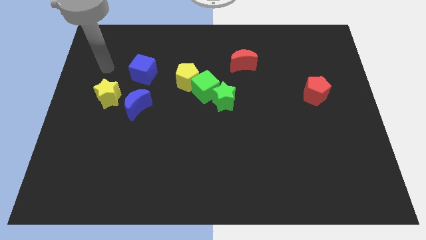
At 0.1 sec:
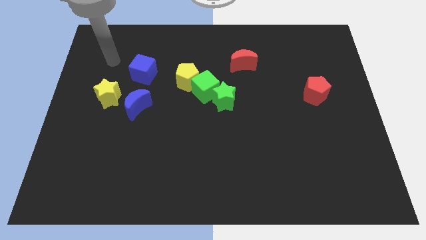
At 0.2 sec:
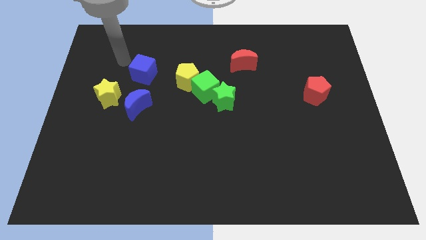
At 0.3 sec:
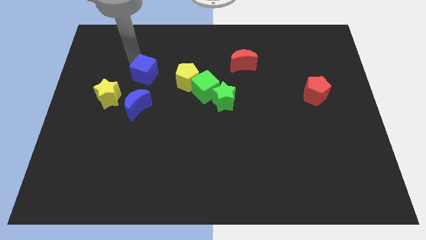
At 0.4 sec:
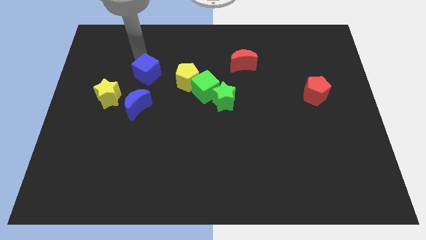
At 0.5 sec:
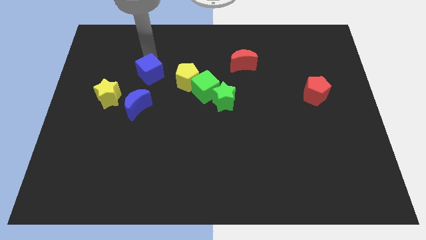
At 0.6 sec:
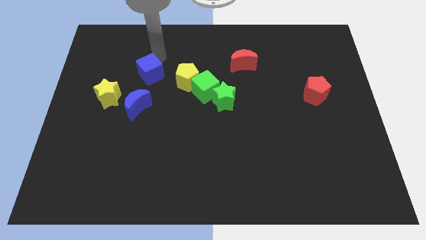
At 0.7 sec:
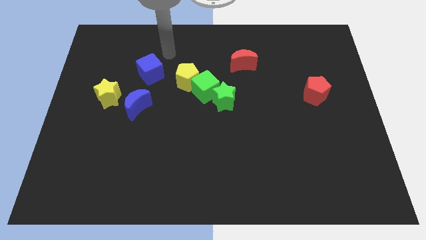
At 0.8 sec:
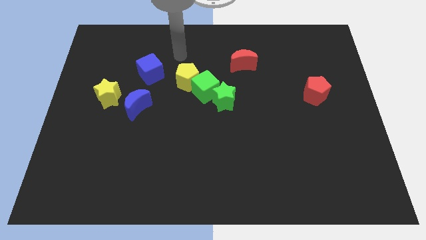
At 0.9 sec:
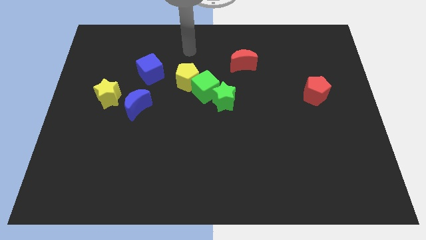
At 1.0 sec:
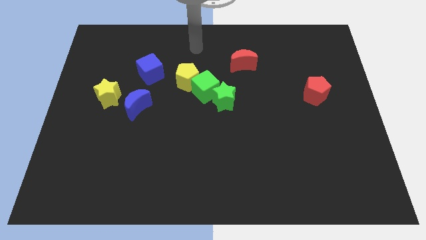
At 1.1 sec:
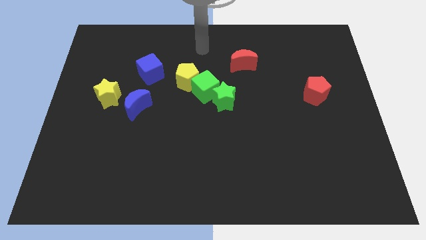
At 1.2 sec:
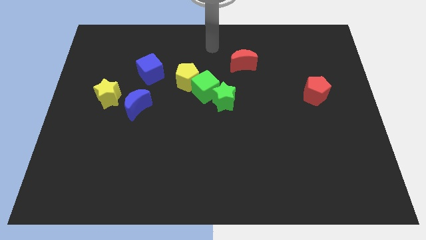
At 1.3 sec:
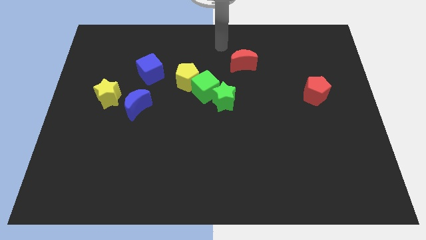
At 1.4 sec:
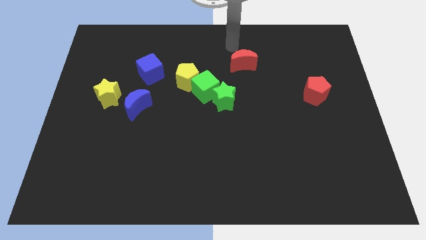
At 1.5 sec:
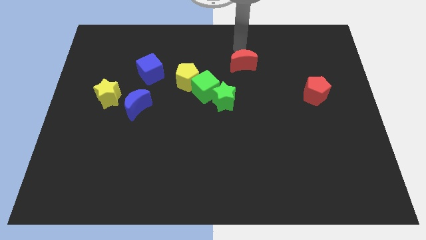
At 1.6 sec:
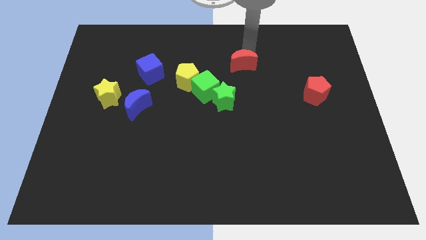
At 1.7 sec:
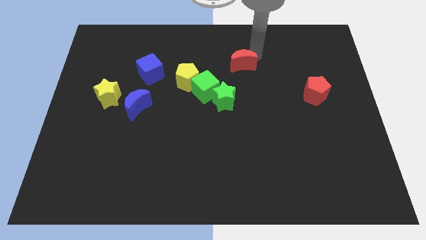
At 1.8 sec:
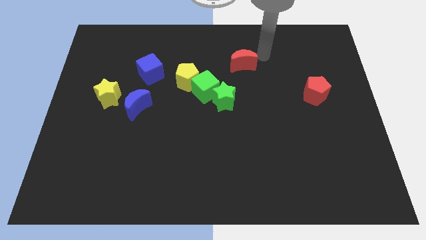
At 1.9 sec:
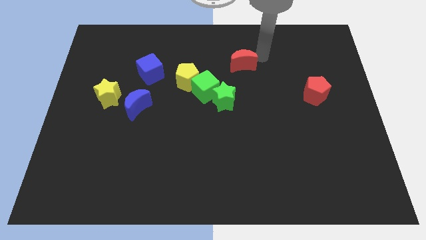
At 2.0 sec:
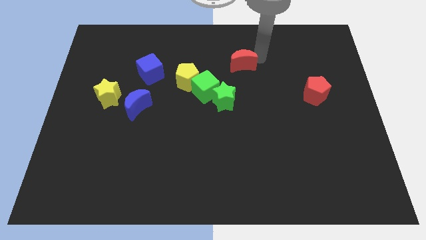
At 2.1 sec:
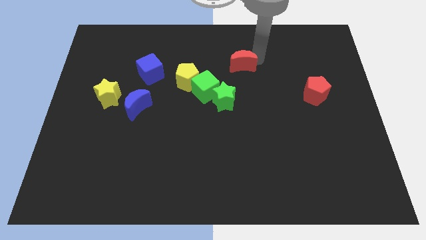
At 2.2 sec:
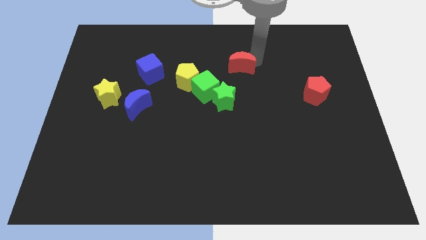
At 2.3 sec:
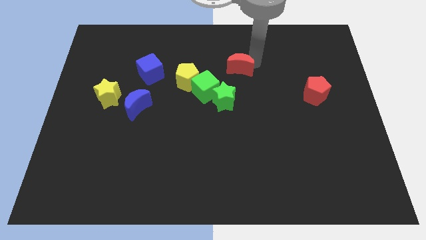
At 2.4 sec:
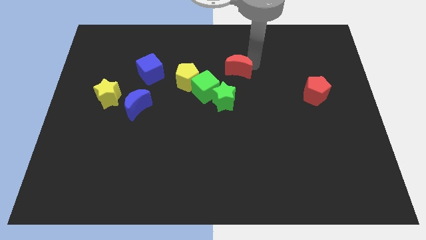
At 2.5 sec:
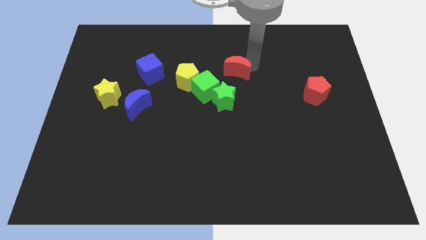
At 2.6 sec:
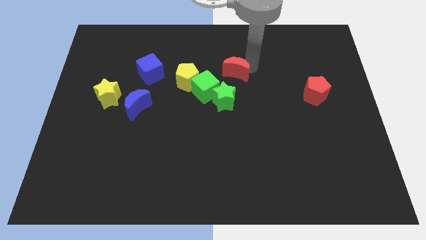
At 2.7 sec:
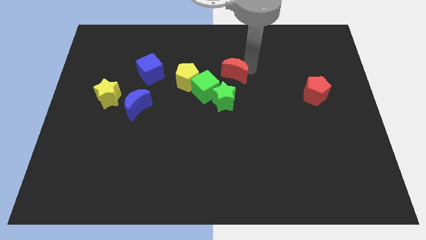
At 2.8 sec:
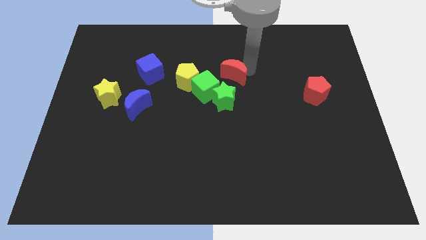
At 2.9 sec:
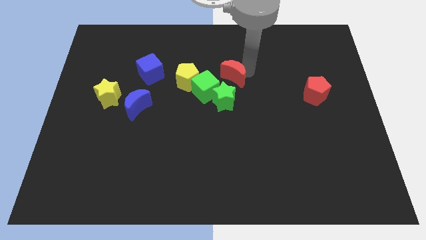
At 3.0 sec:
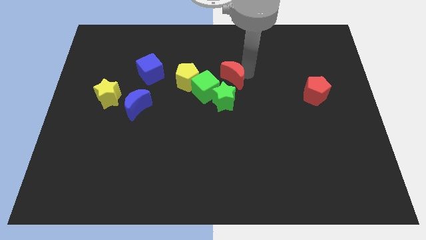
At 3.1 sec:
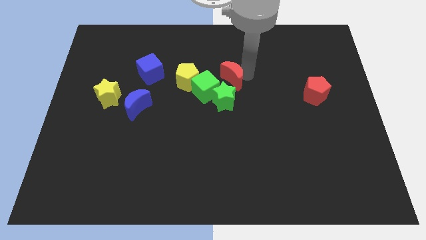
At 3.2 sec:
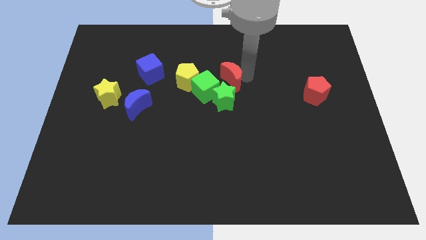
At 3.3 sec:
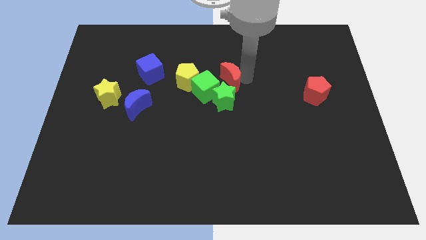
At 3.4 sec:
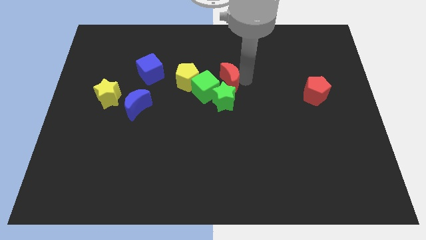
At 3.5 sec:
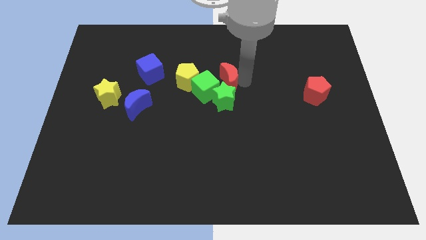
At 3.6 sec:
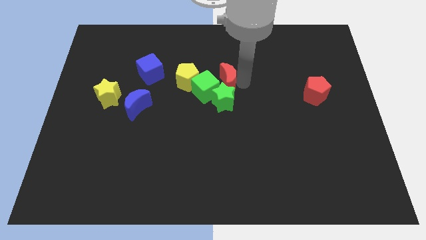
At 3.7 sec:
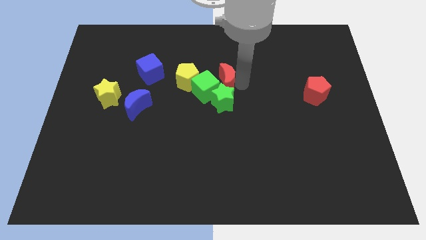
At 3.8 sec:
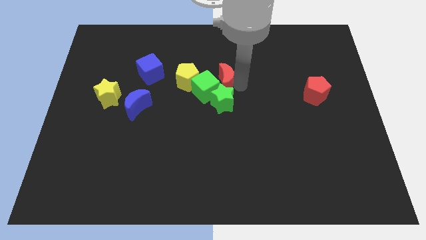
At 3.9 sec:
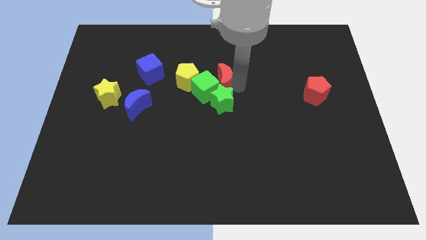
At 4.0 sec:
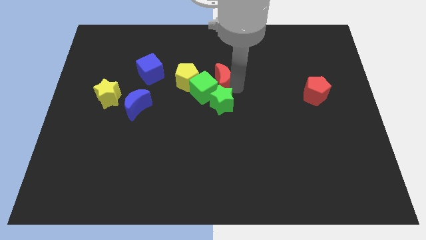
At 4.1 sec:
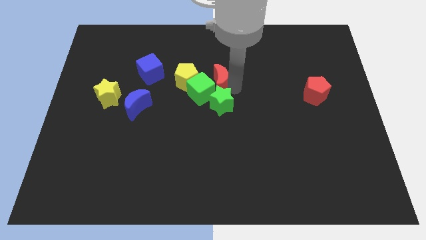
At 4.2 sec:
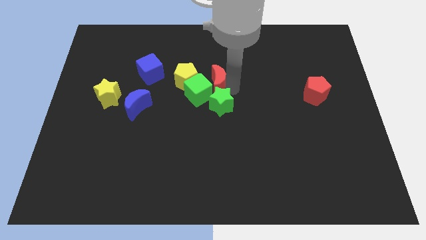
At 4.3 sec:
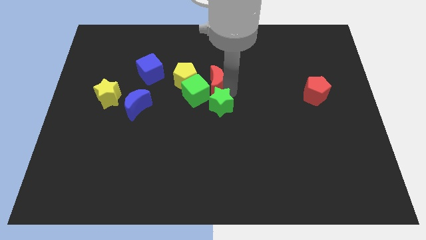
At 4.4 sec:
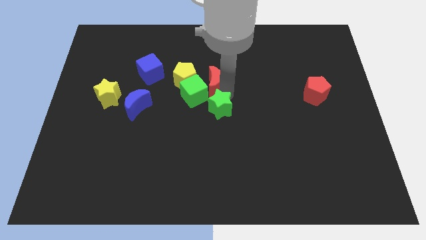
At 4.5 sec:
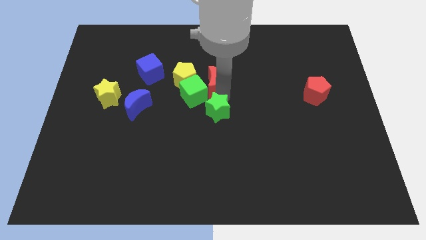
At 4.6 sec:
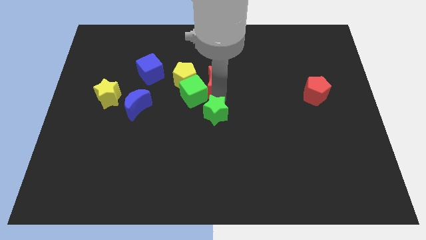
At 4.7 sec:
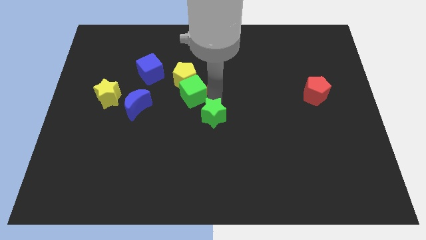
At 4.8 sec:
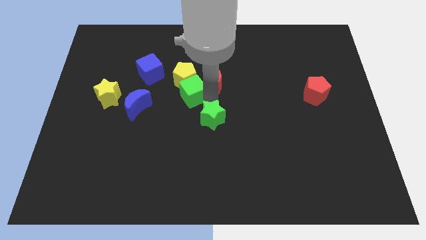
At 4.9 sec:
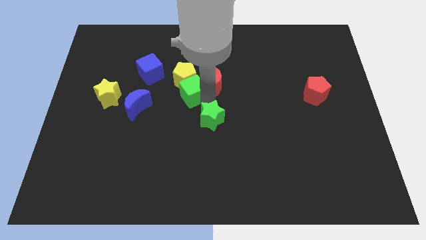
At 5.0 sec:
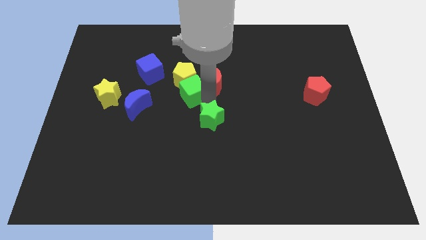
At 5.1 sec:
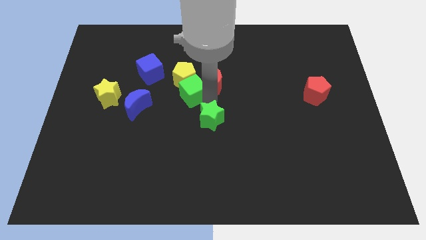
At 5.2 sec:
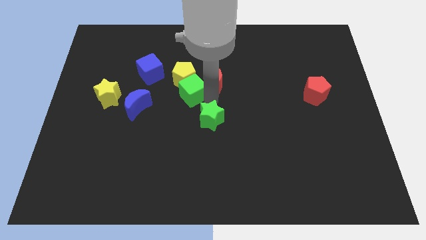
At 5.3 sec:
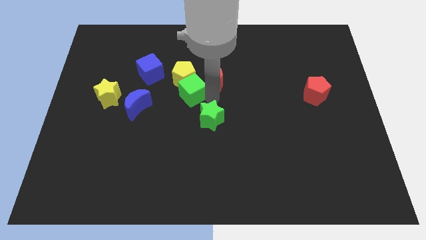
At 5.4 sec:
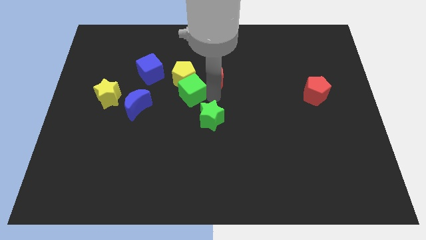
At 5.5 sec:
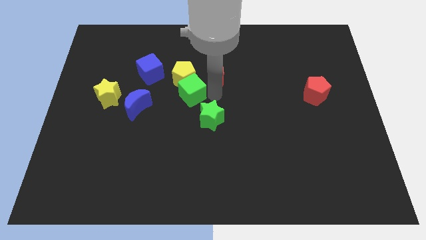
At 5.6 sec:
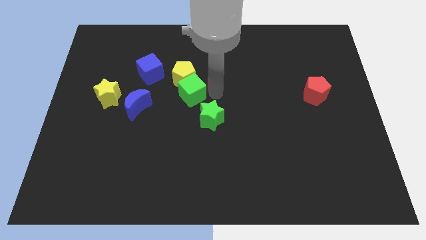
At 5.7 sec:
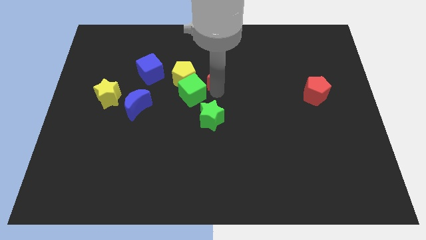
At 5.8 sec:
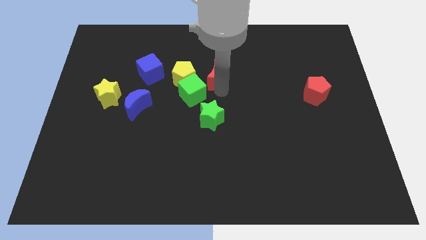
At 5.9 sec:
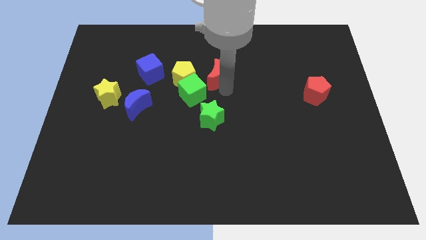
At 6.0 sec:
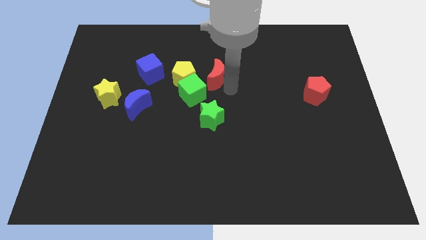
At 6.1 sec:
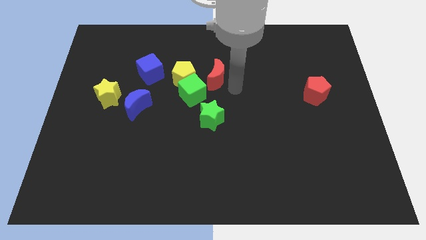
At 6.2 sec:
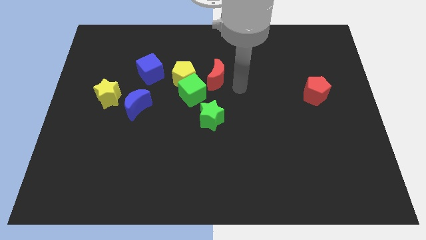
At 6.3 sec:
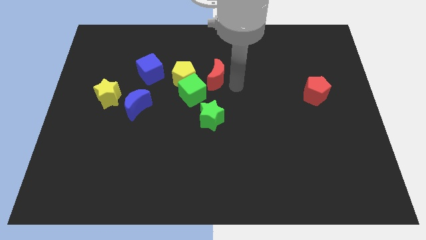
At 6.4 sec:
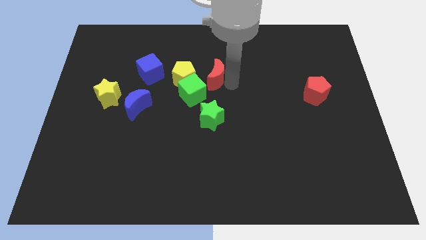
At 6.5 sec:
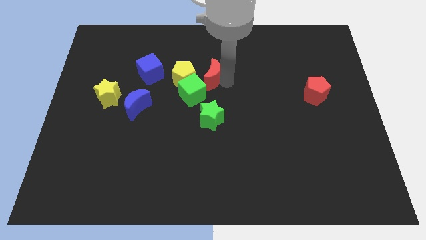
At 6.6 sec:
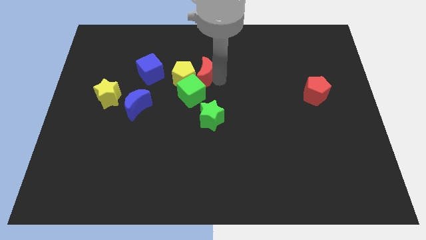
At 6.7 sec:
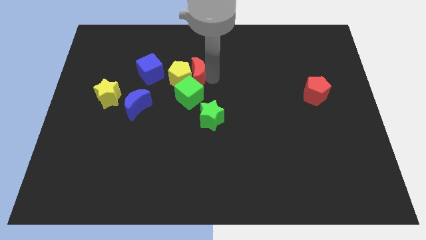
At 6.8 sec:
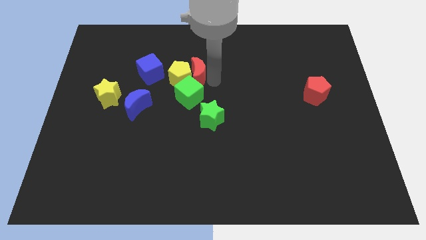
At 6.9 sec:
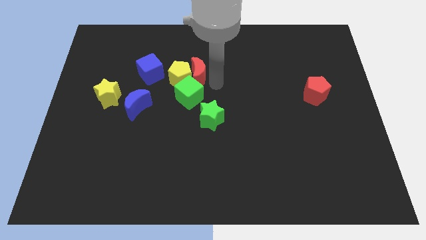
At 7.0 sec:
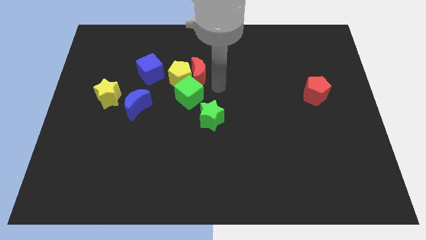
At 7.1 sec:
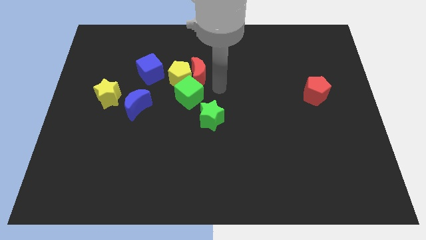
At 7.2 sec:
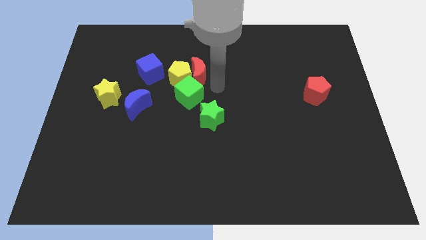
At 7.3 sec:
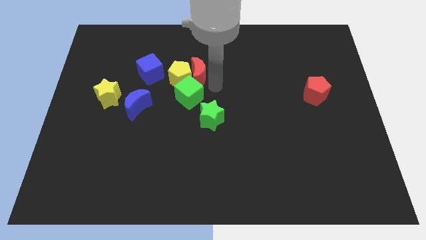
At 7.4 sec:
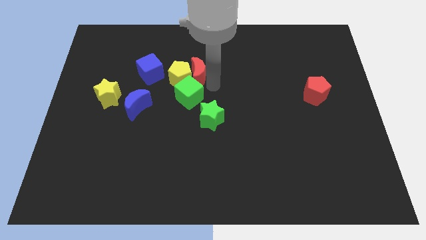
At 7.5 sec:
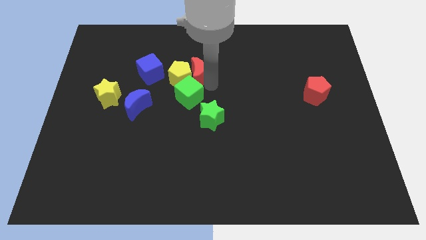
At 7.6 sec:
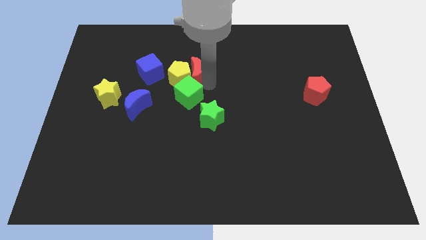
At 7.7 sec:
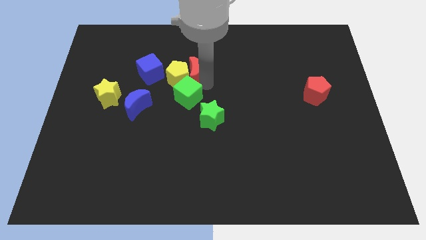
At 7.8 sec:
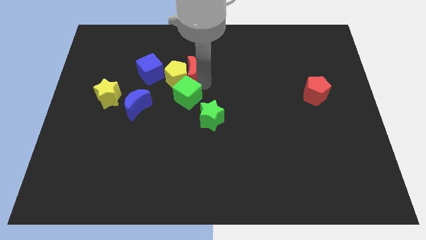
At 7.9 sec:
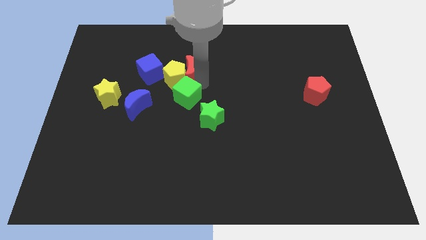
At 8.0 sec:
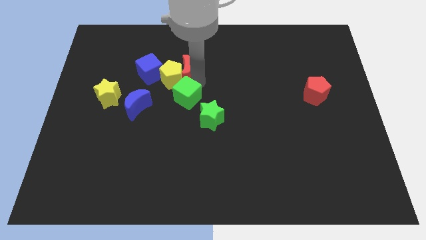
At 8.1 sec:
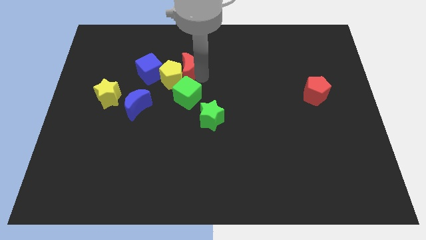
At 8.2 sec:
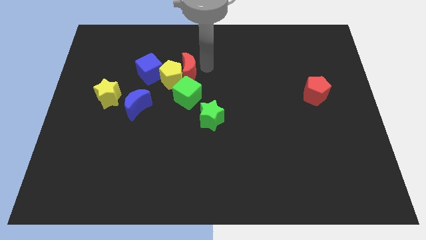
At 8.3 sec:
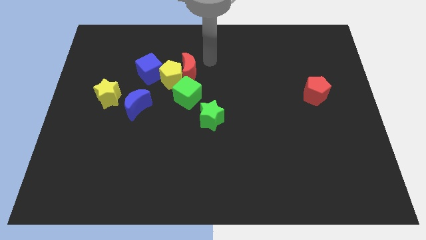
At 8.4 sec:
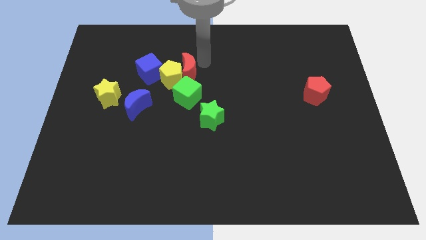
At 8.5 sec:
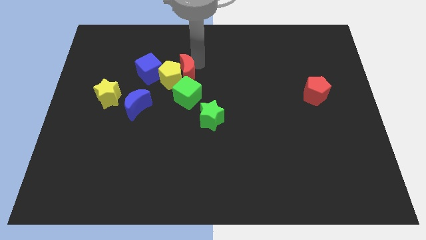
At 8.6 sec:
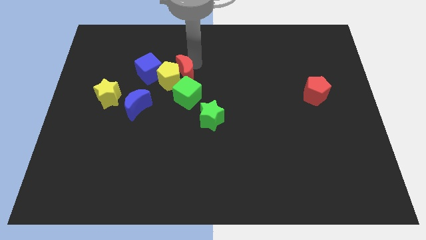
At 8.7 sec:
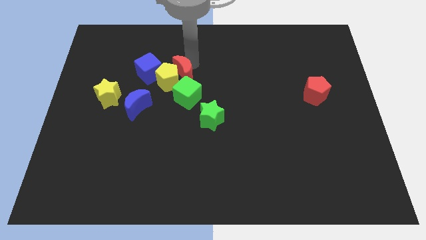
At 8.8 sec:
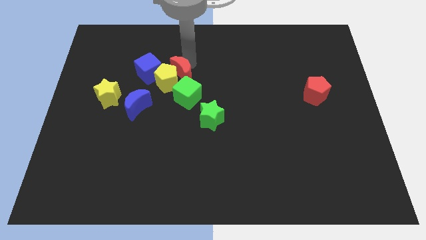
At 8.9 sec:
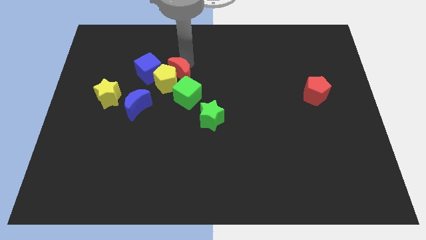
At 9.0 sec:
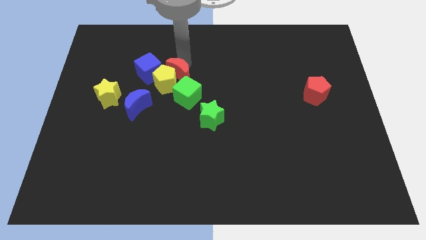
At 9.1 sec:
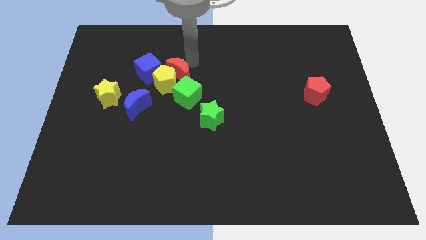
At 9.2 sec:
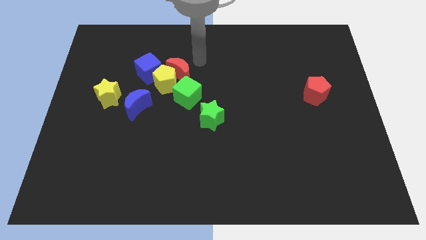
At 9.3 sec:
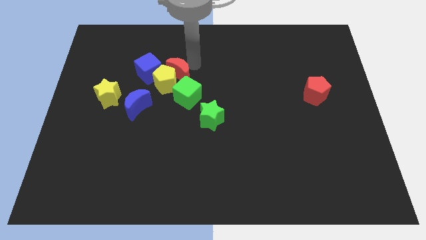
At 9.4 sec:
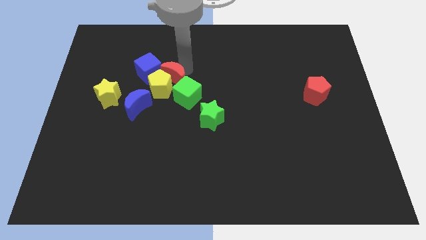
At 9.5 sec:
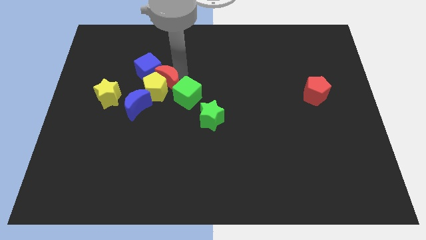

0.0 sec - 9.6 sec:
move the red moon left of the green cube
